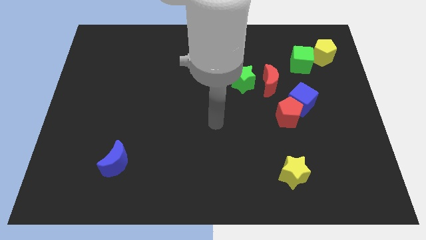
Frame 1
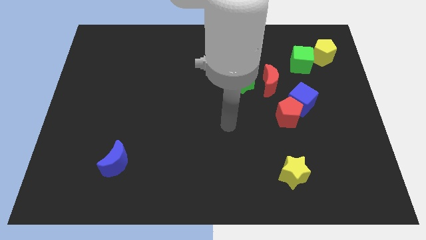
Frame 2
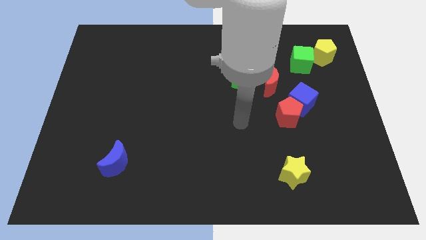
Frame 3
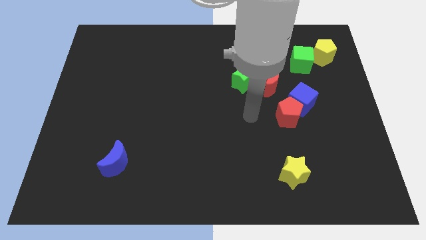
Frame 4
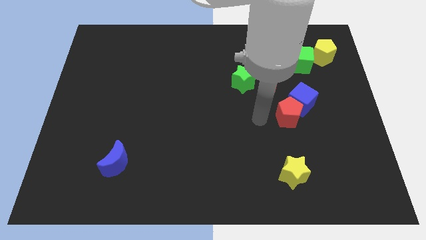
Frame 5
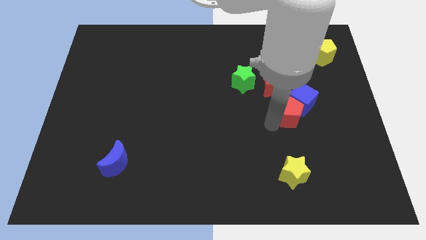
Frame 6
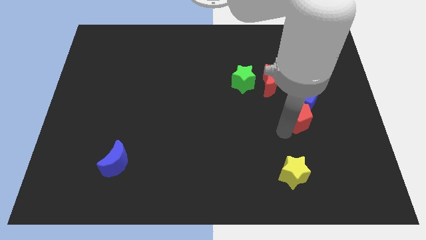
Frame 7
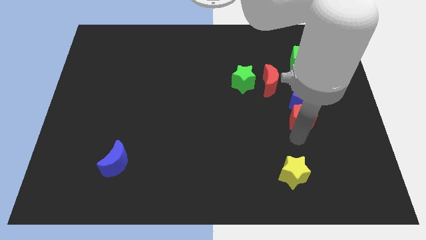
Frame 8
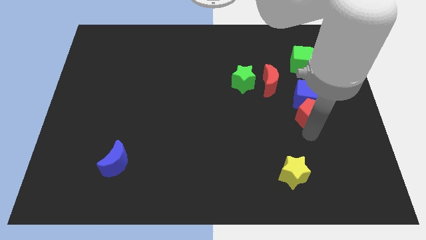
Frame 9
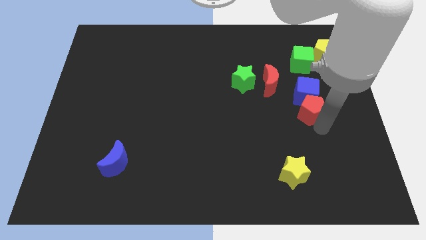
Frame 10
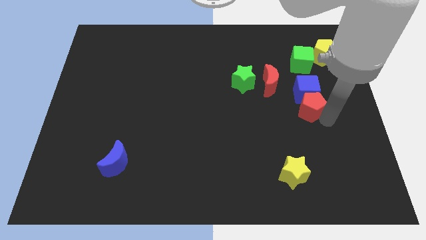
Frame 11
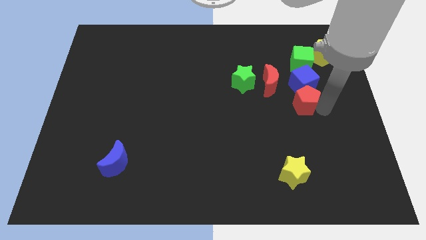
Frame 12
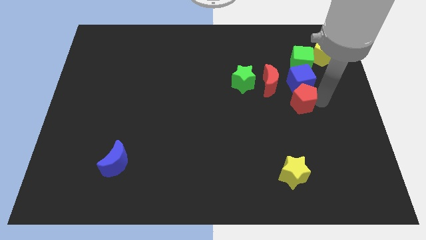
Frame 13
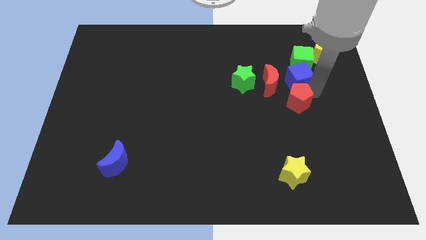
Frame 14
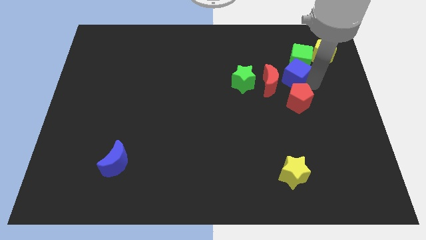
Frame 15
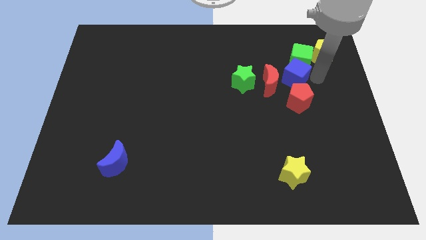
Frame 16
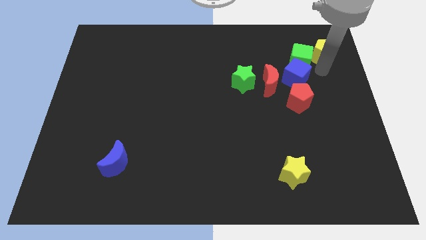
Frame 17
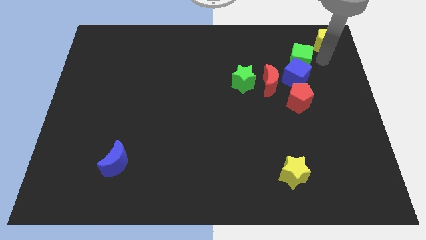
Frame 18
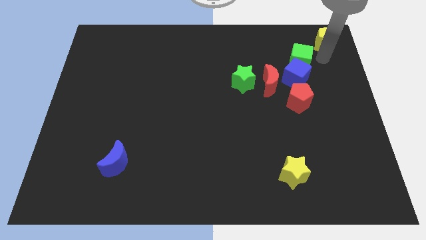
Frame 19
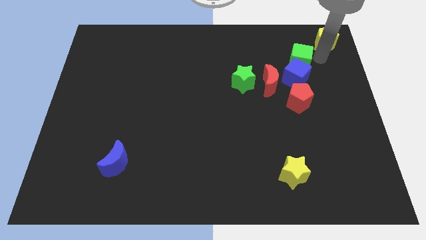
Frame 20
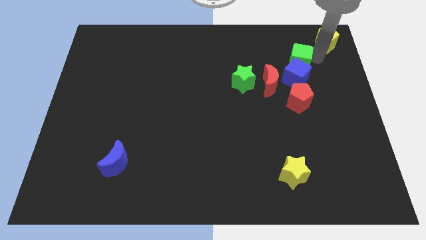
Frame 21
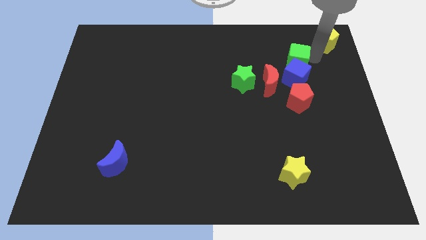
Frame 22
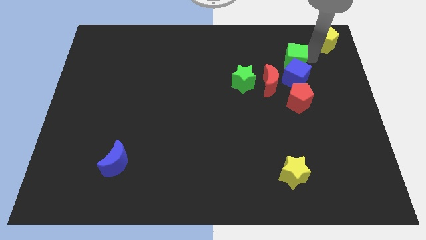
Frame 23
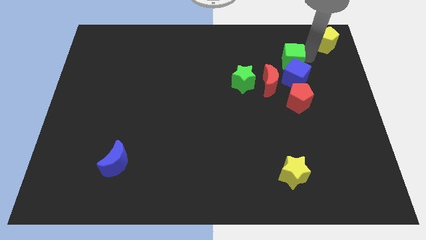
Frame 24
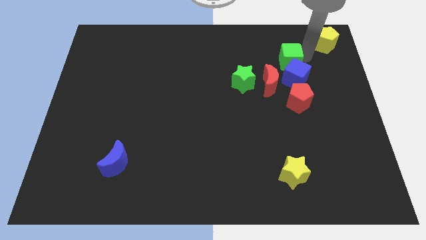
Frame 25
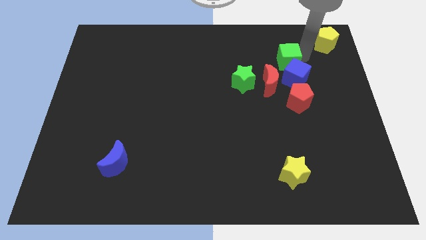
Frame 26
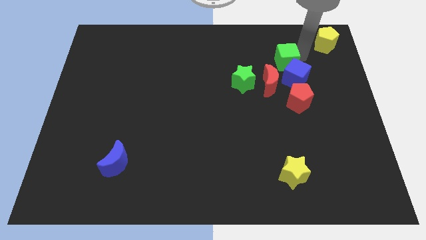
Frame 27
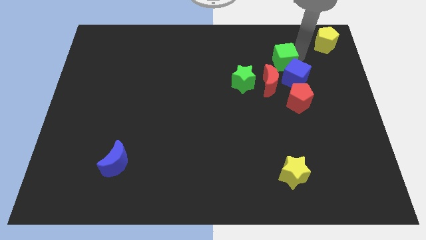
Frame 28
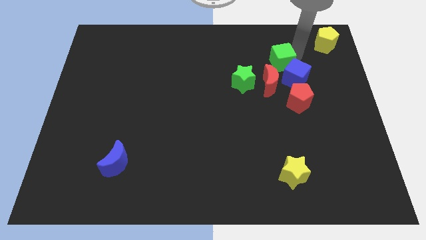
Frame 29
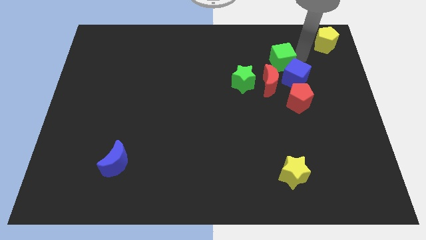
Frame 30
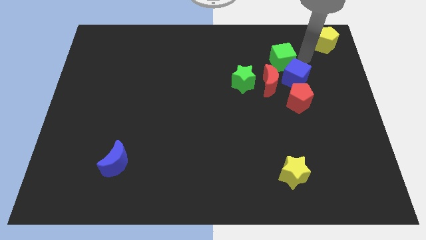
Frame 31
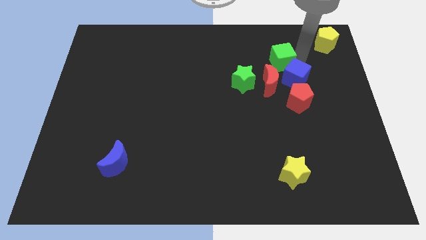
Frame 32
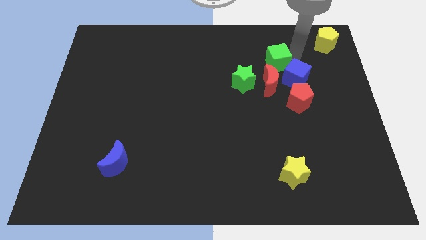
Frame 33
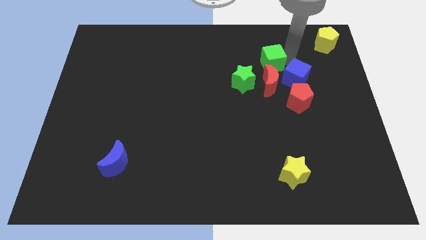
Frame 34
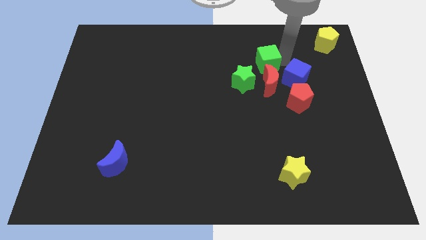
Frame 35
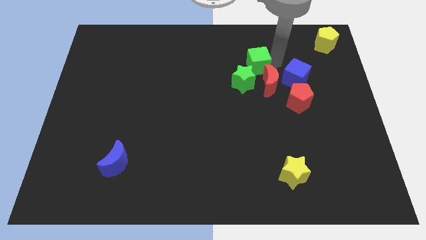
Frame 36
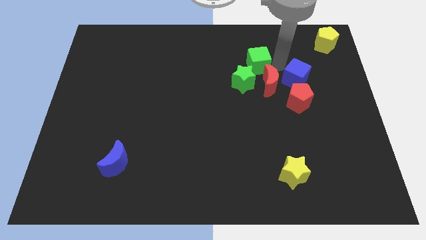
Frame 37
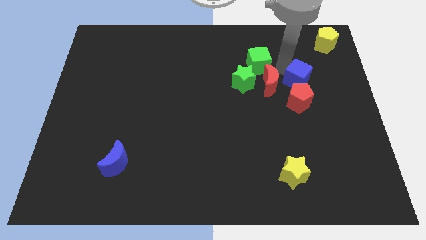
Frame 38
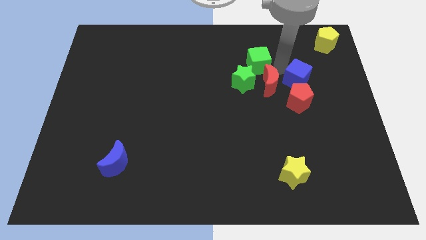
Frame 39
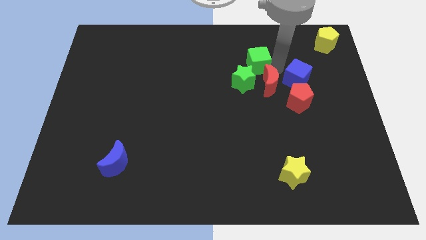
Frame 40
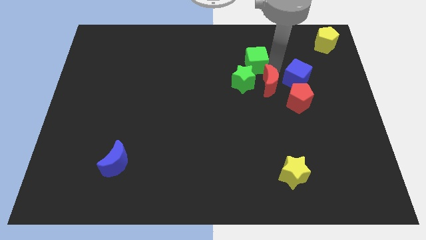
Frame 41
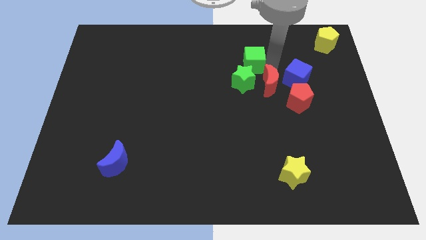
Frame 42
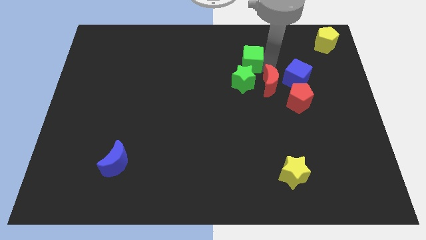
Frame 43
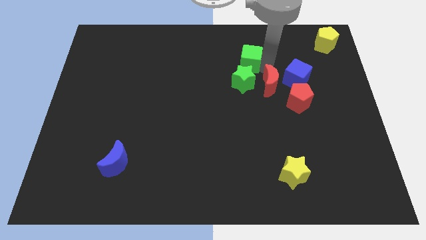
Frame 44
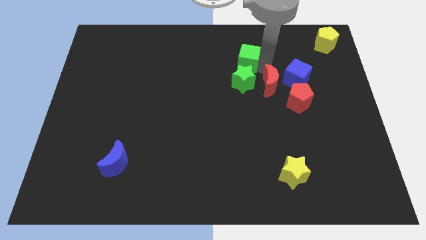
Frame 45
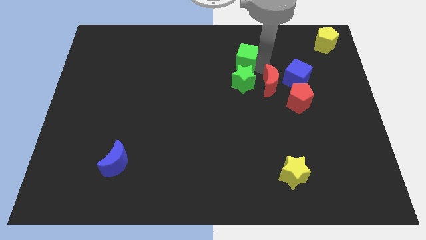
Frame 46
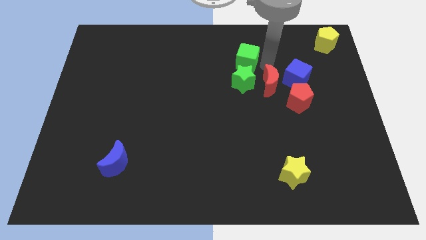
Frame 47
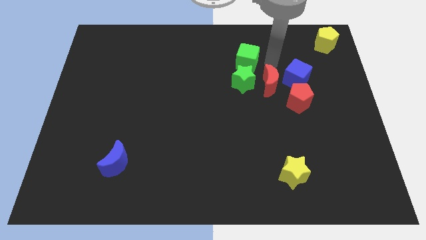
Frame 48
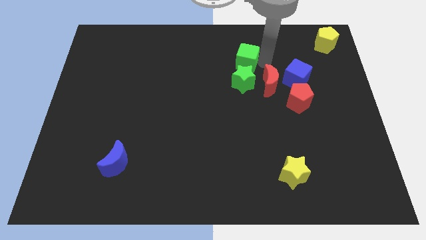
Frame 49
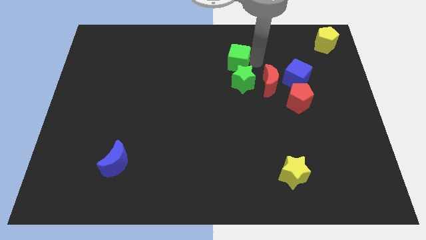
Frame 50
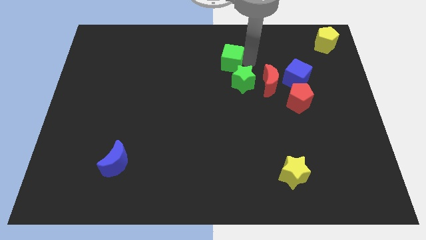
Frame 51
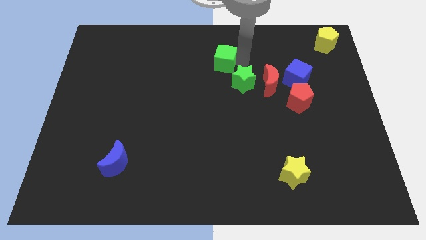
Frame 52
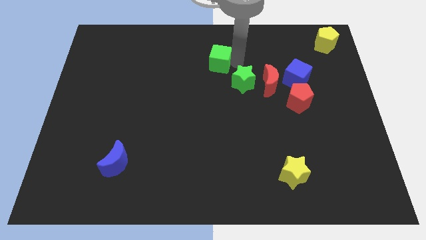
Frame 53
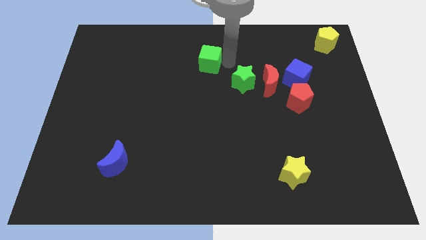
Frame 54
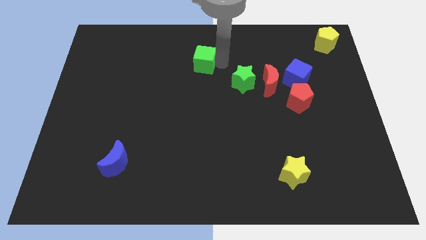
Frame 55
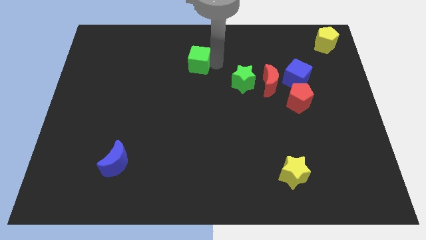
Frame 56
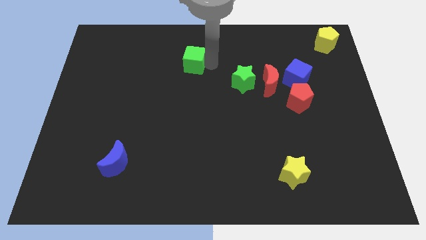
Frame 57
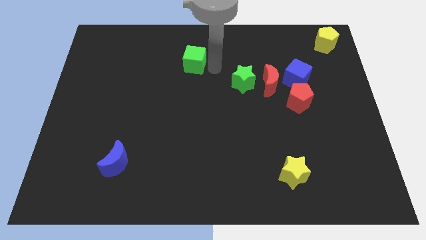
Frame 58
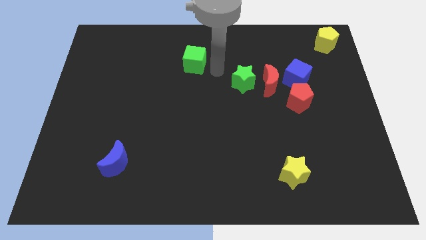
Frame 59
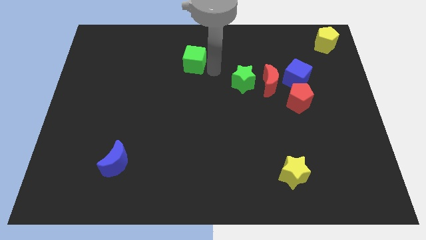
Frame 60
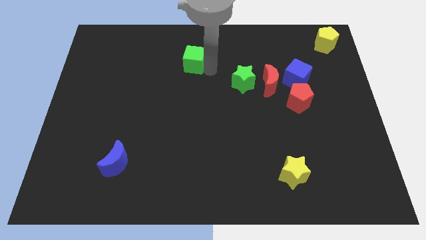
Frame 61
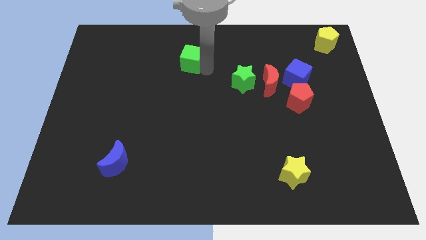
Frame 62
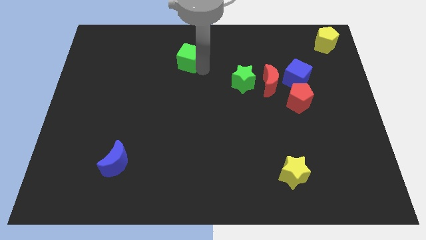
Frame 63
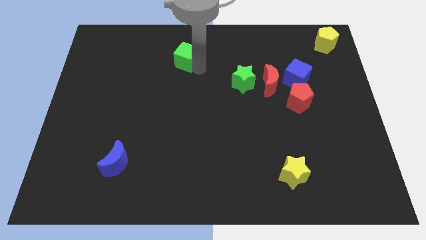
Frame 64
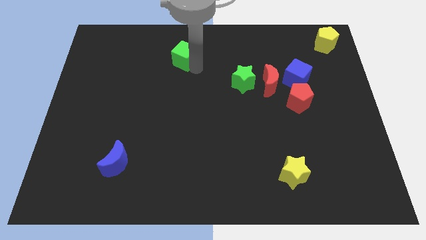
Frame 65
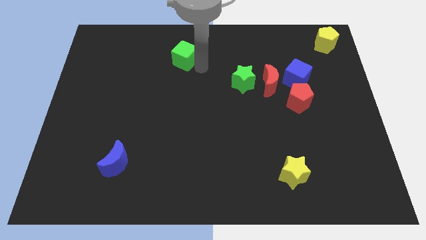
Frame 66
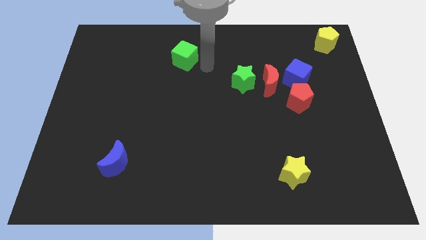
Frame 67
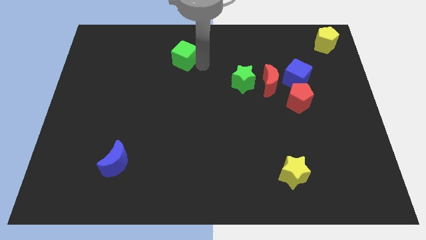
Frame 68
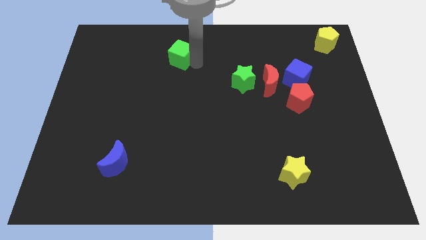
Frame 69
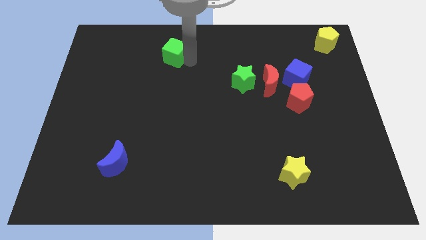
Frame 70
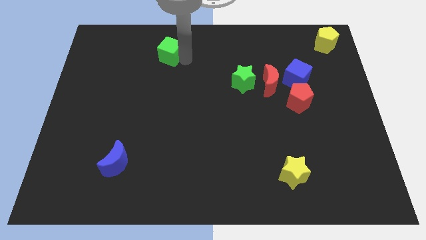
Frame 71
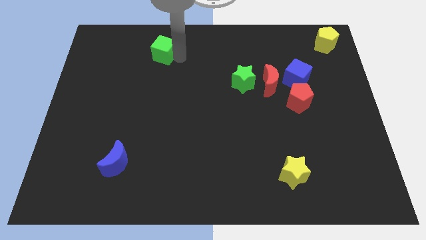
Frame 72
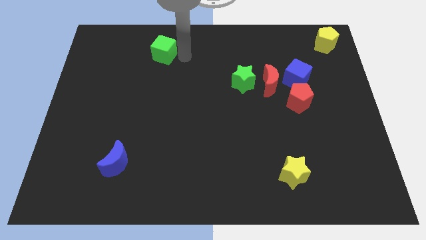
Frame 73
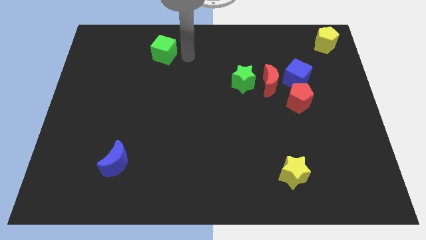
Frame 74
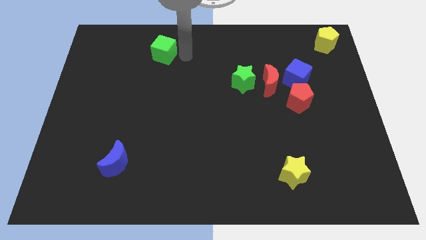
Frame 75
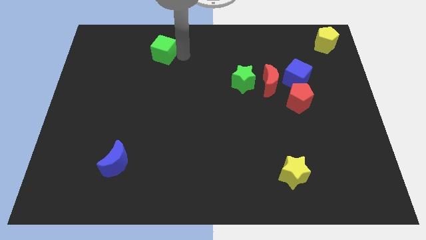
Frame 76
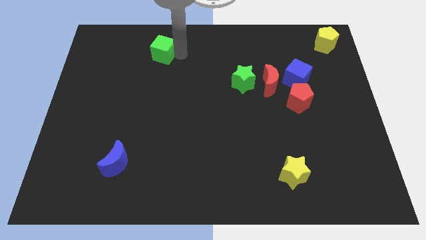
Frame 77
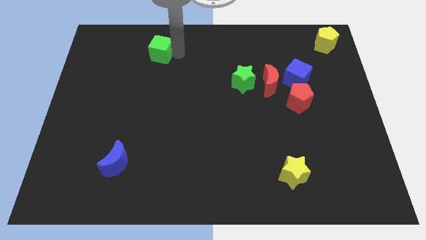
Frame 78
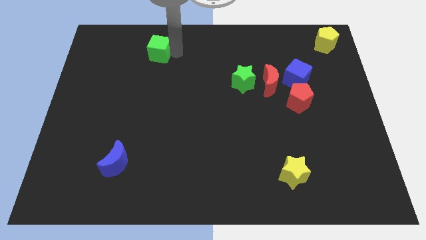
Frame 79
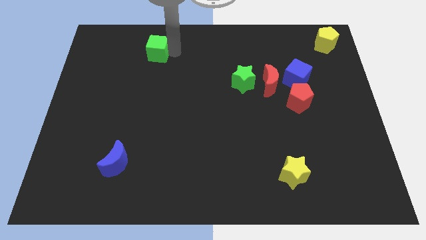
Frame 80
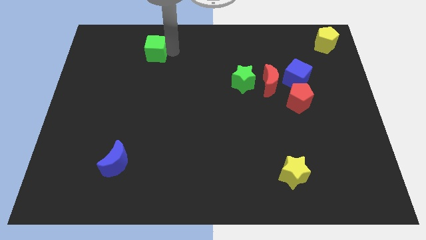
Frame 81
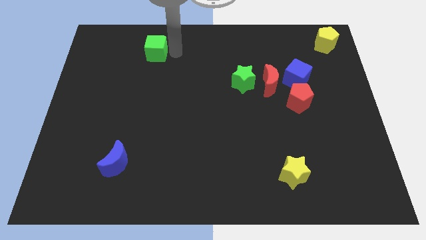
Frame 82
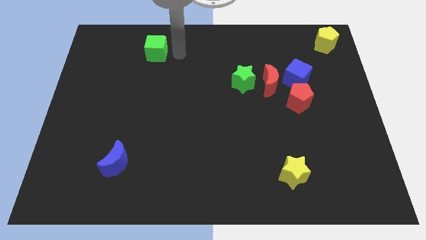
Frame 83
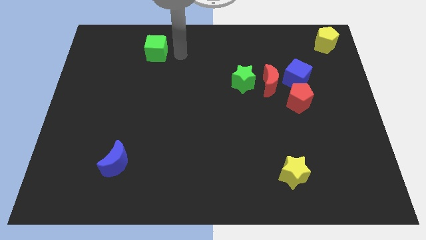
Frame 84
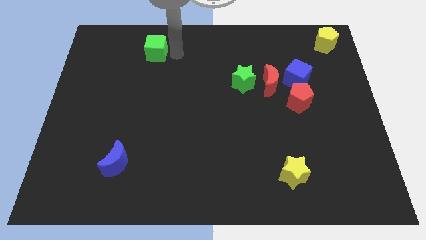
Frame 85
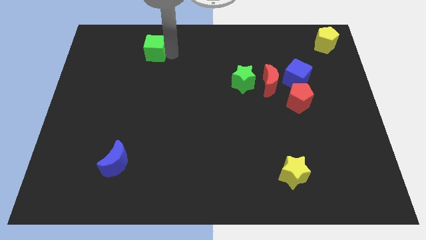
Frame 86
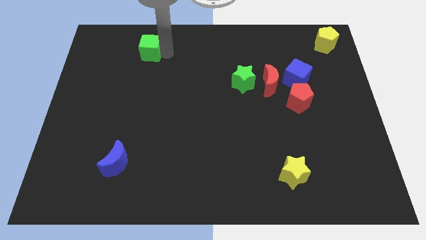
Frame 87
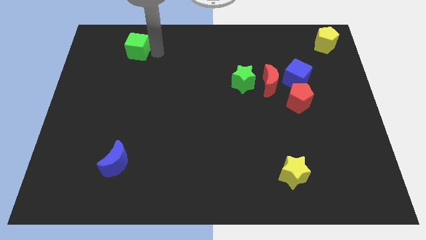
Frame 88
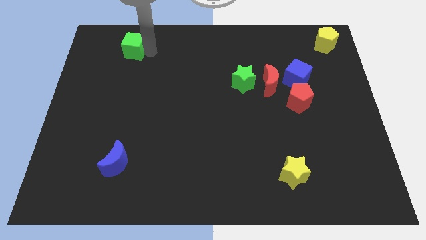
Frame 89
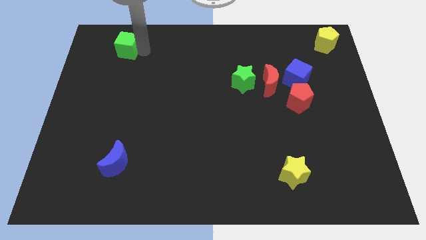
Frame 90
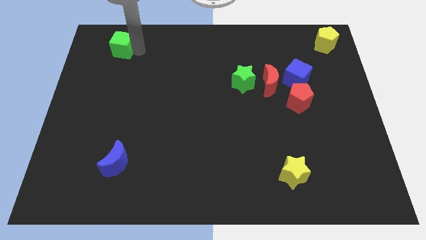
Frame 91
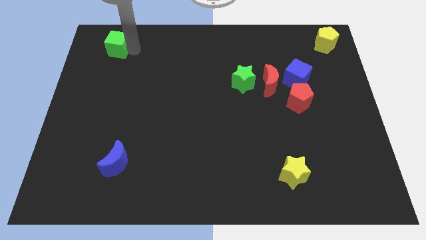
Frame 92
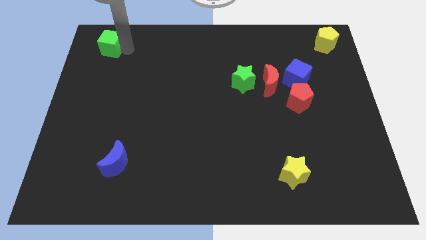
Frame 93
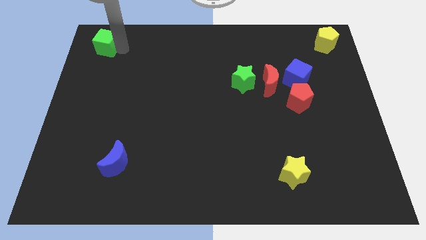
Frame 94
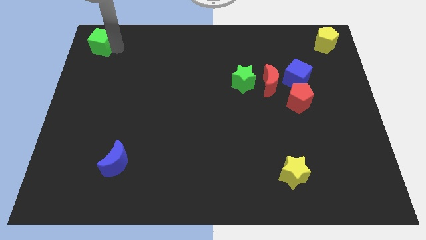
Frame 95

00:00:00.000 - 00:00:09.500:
move the green cube to the top left corner
